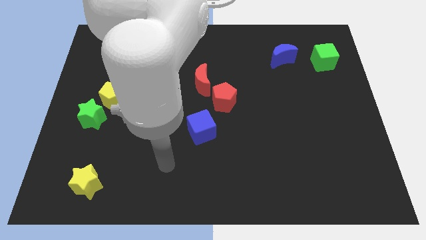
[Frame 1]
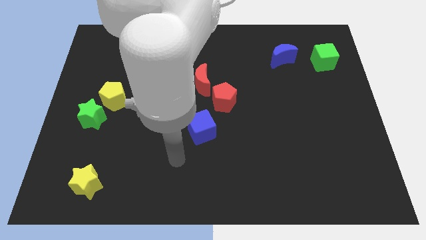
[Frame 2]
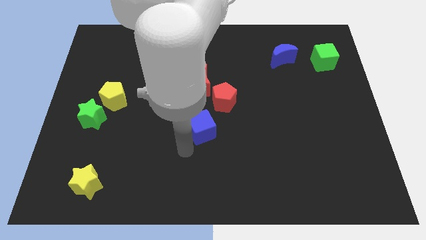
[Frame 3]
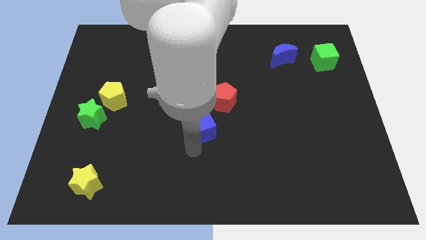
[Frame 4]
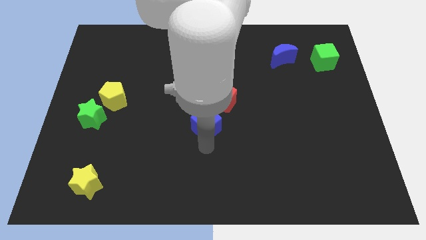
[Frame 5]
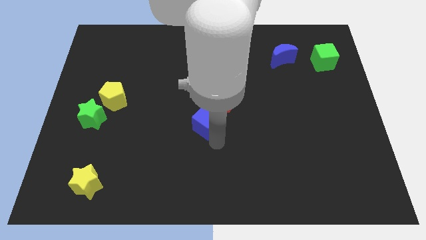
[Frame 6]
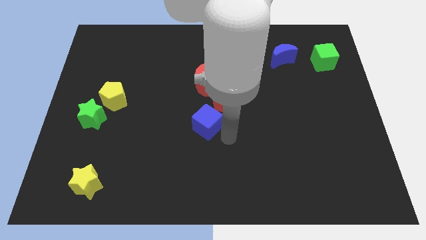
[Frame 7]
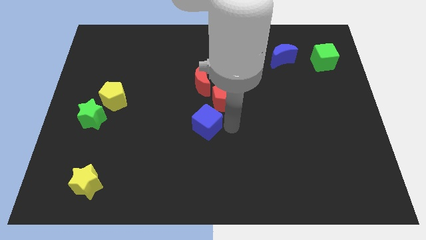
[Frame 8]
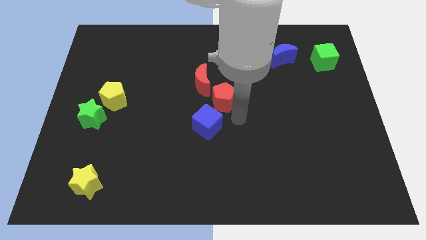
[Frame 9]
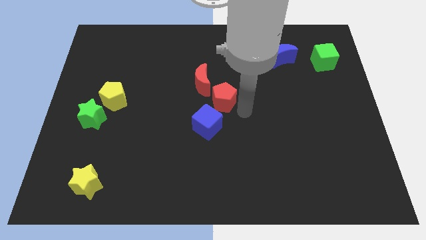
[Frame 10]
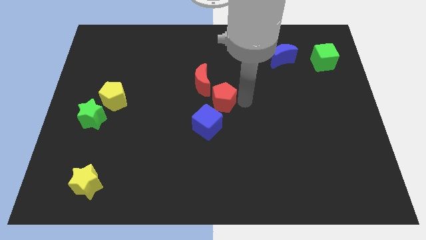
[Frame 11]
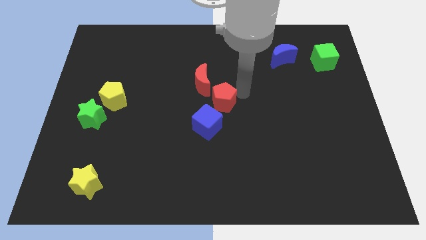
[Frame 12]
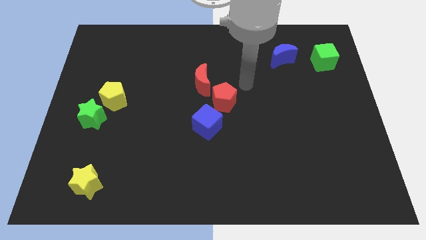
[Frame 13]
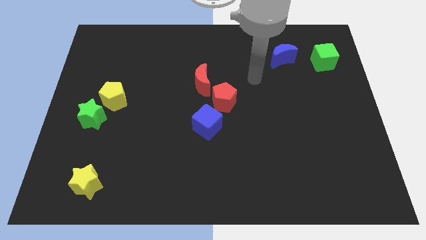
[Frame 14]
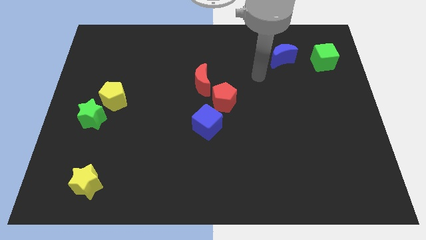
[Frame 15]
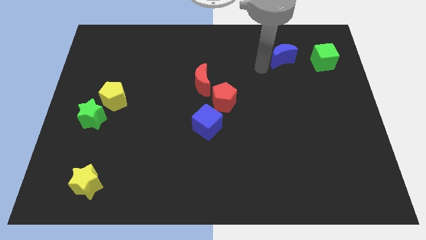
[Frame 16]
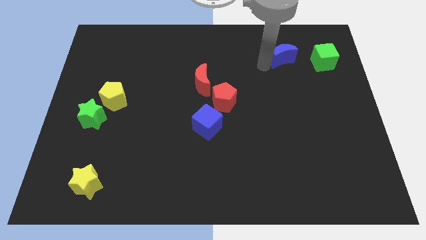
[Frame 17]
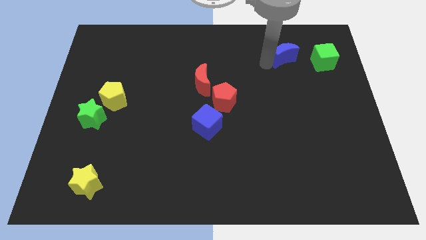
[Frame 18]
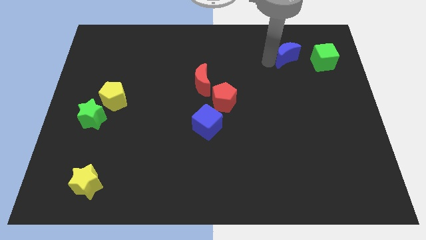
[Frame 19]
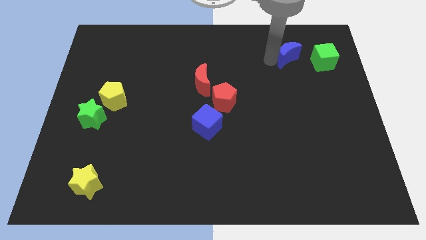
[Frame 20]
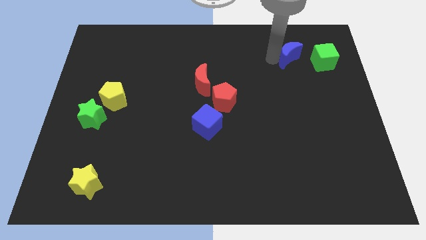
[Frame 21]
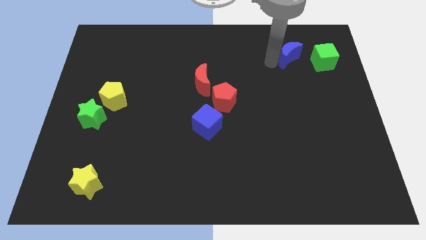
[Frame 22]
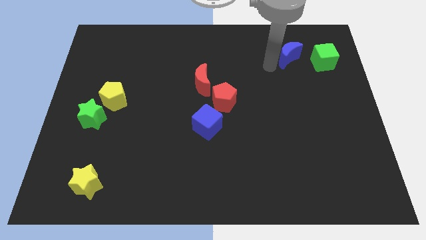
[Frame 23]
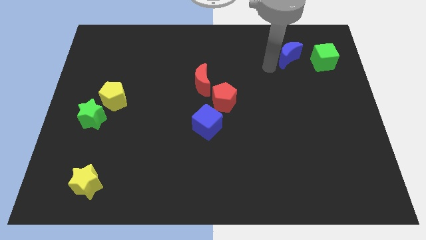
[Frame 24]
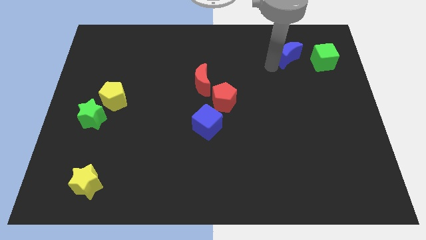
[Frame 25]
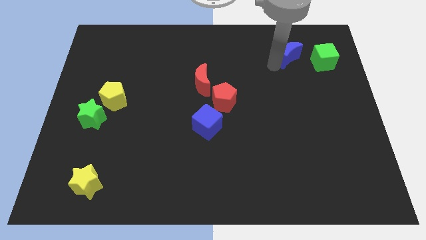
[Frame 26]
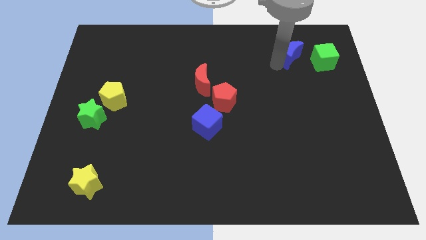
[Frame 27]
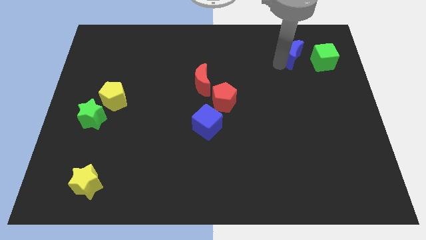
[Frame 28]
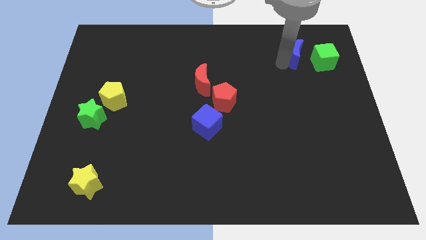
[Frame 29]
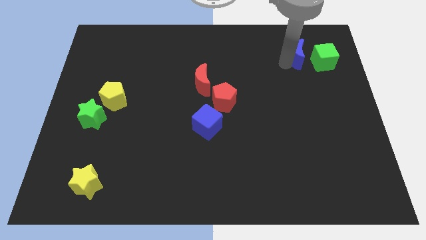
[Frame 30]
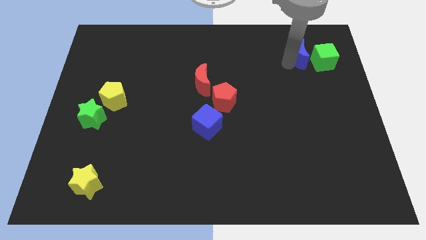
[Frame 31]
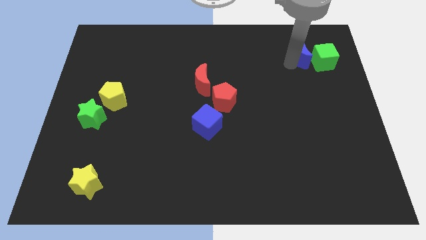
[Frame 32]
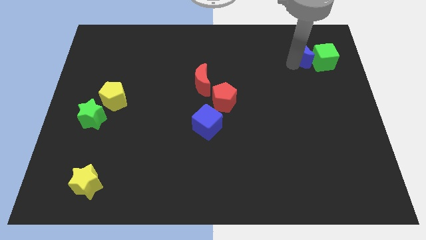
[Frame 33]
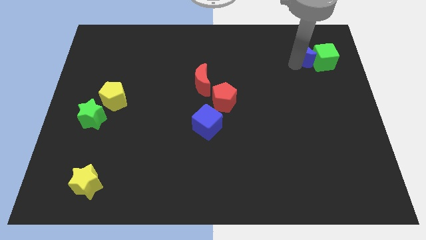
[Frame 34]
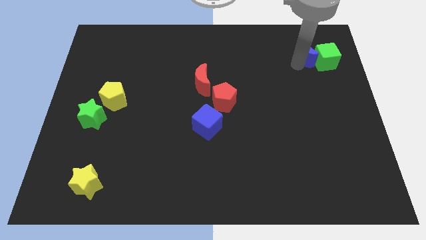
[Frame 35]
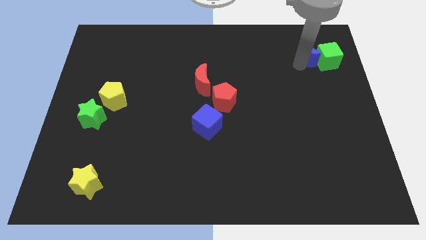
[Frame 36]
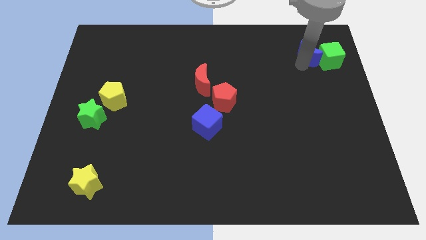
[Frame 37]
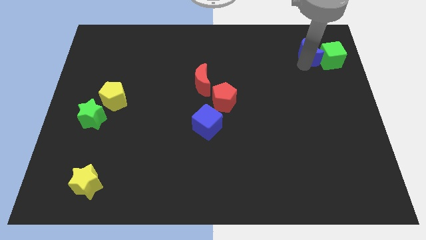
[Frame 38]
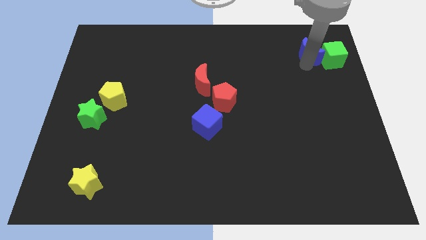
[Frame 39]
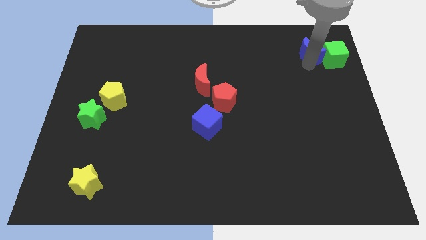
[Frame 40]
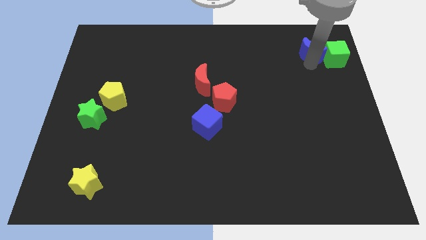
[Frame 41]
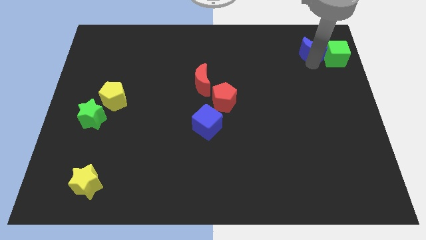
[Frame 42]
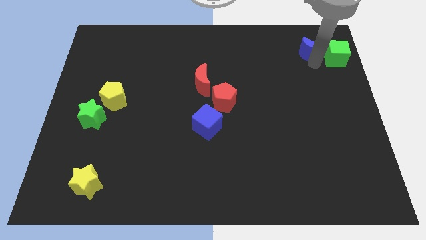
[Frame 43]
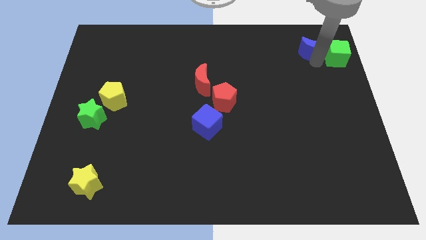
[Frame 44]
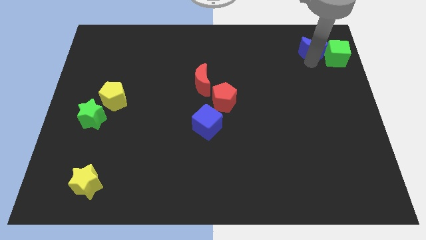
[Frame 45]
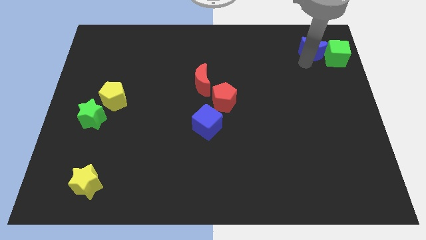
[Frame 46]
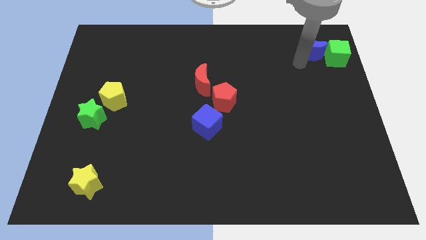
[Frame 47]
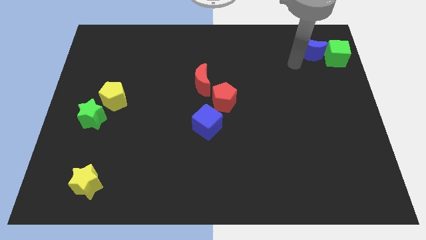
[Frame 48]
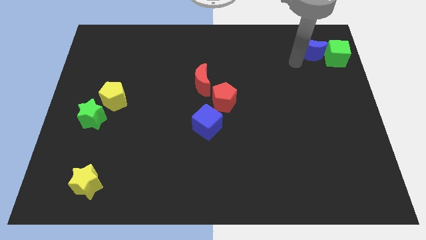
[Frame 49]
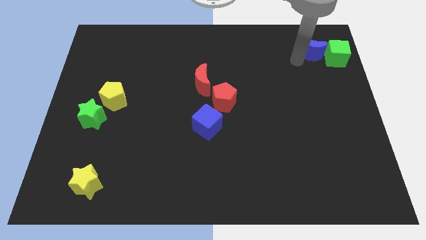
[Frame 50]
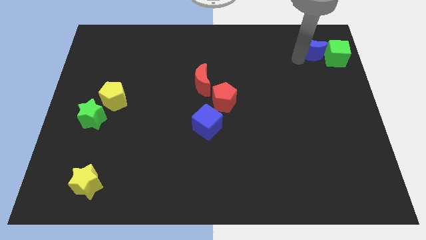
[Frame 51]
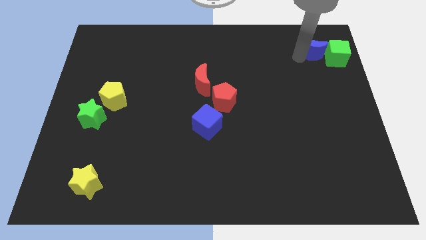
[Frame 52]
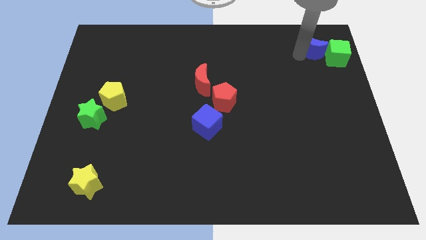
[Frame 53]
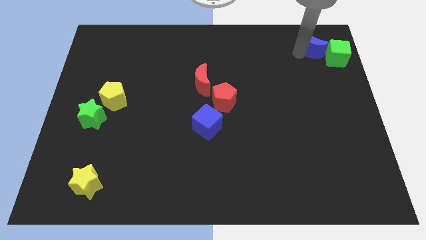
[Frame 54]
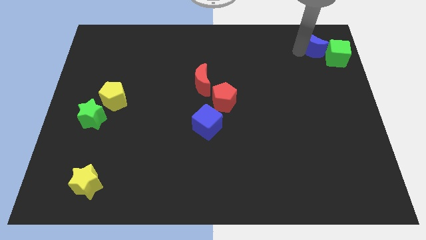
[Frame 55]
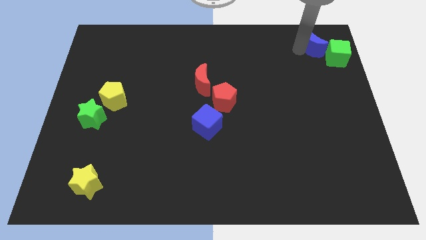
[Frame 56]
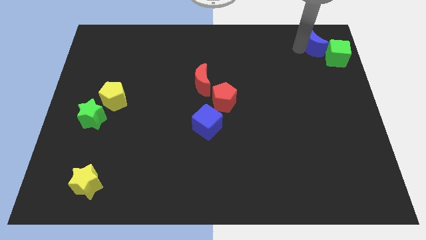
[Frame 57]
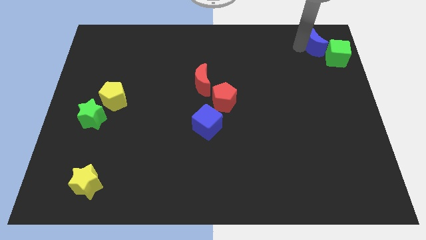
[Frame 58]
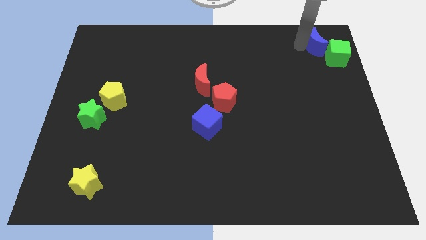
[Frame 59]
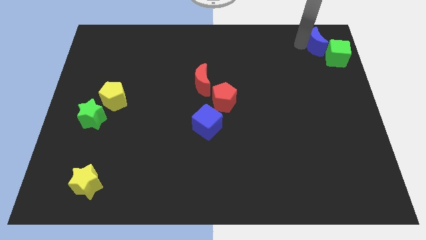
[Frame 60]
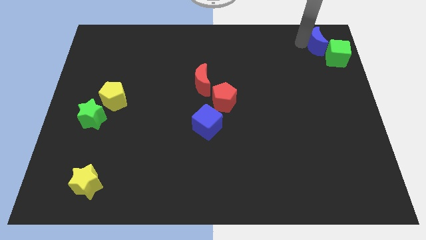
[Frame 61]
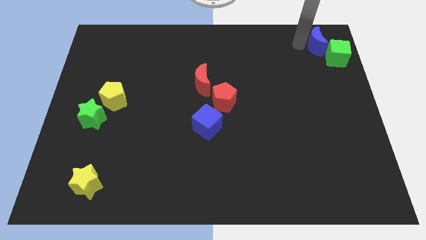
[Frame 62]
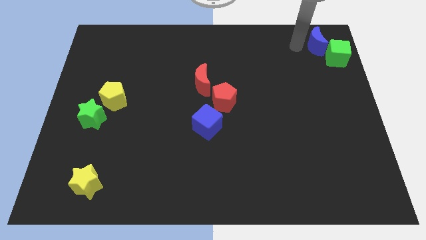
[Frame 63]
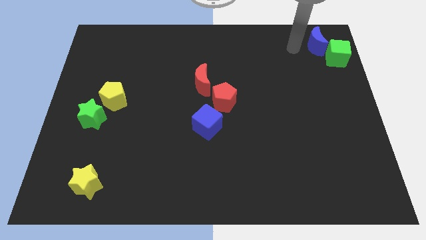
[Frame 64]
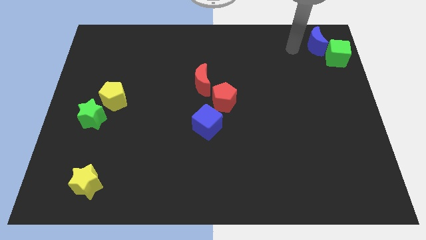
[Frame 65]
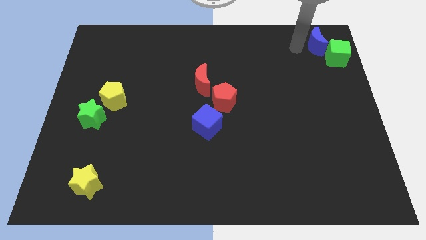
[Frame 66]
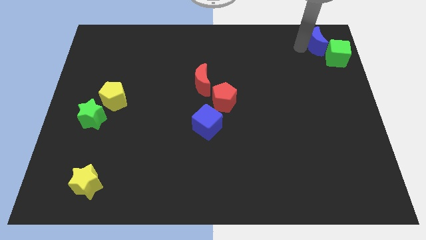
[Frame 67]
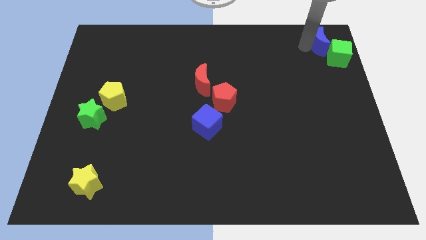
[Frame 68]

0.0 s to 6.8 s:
put the blue moon to the top right

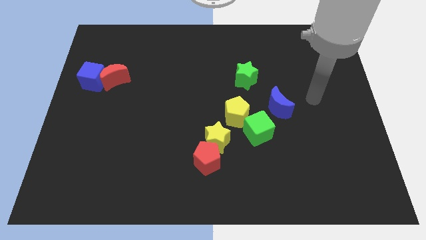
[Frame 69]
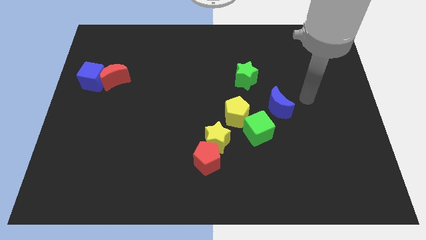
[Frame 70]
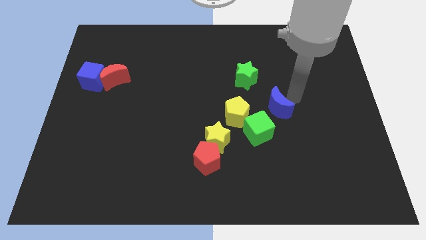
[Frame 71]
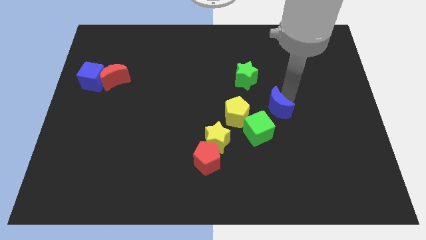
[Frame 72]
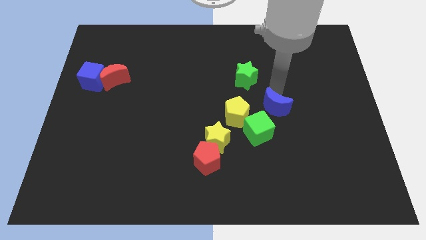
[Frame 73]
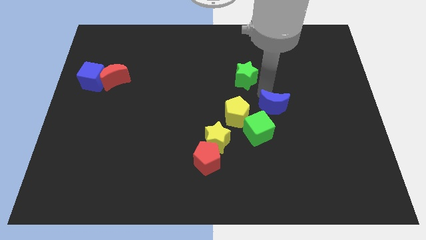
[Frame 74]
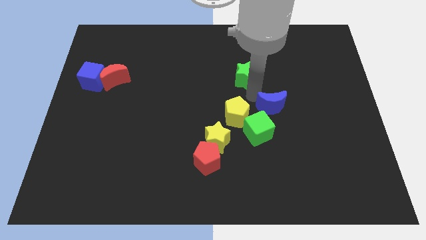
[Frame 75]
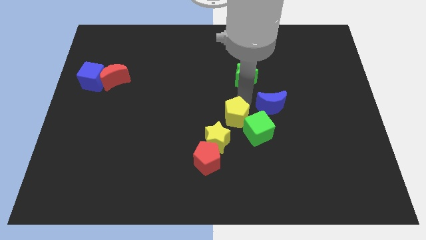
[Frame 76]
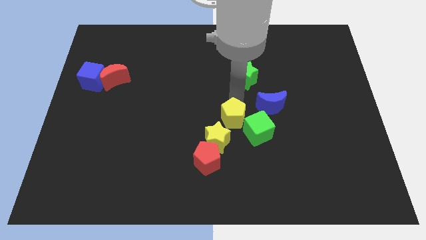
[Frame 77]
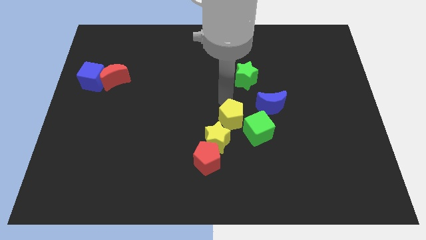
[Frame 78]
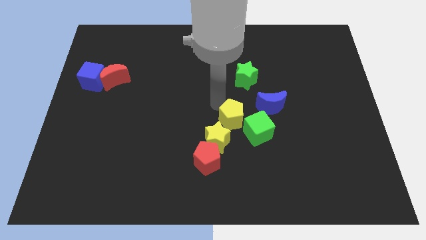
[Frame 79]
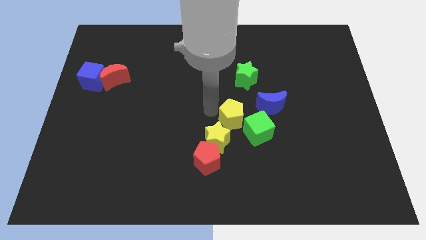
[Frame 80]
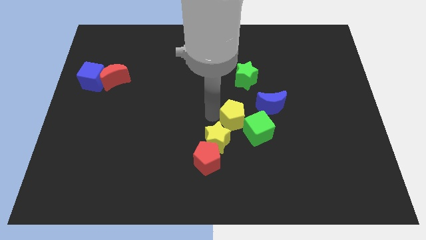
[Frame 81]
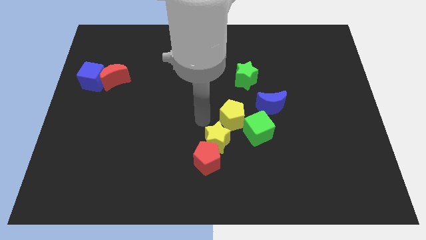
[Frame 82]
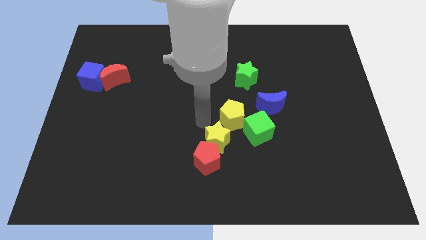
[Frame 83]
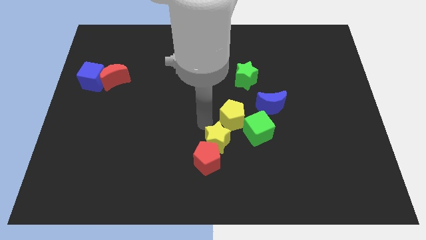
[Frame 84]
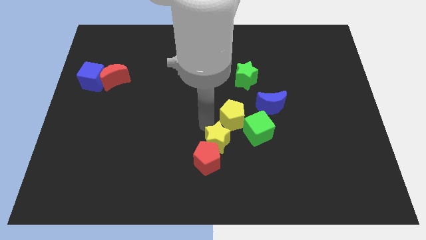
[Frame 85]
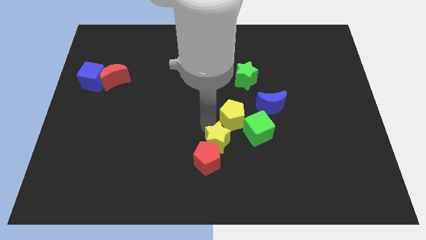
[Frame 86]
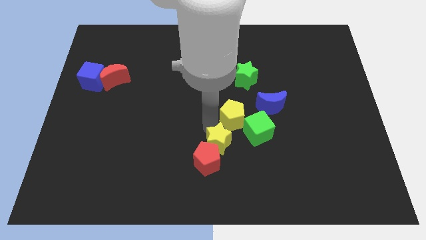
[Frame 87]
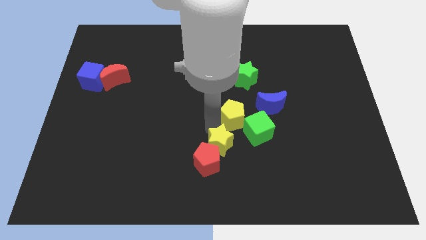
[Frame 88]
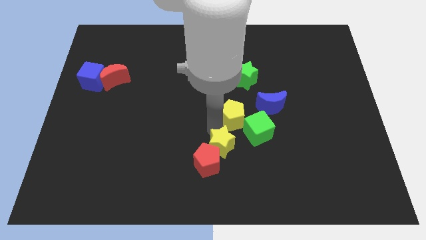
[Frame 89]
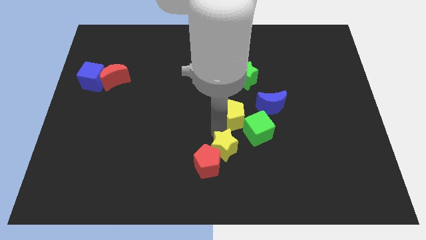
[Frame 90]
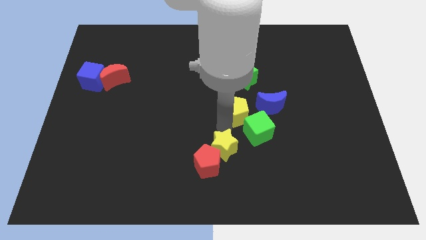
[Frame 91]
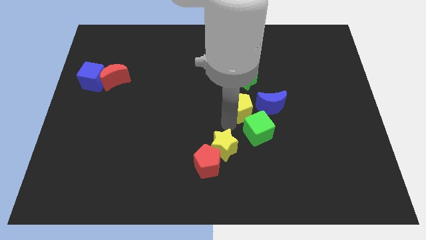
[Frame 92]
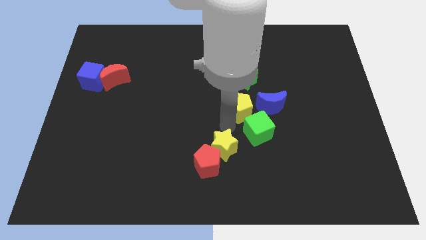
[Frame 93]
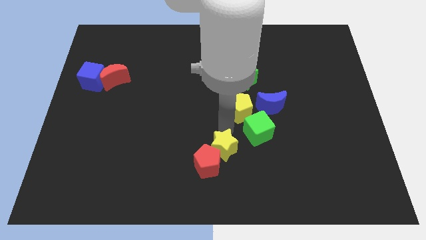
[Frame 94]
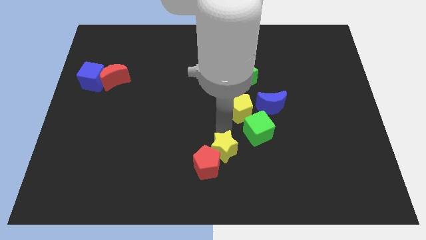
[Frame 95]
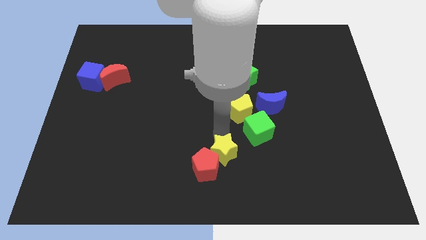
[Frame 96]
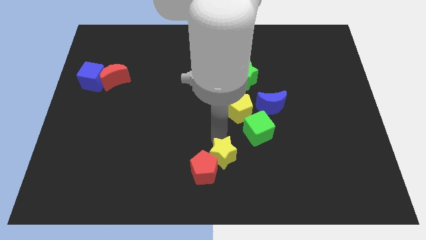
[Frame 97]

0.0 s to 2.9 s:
slide the yellow star to the bottom
